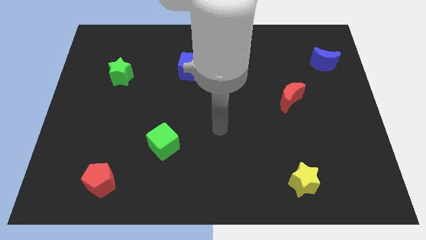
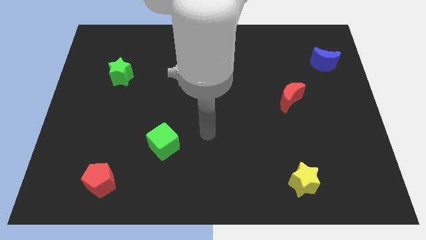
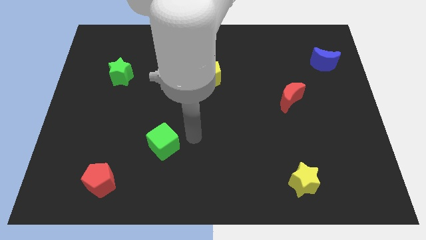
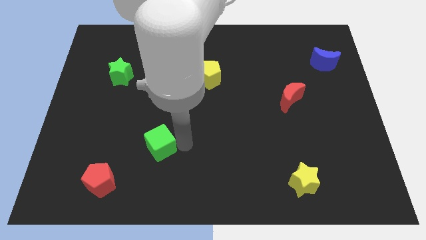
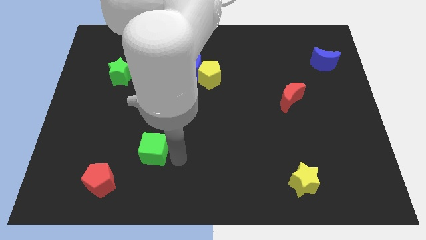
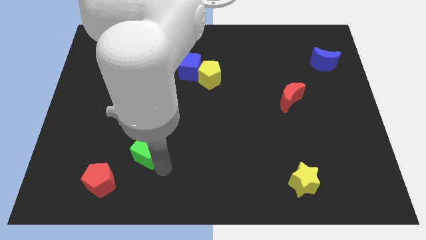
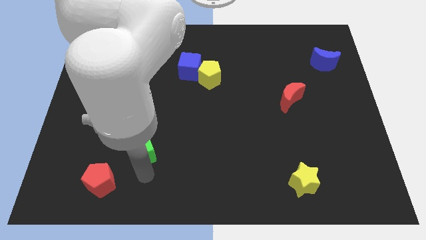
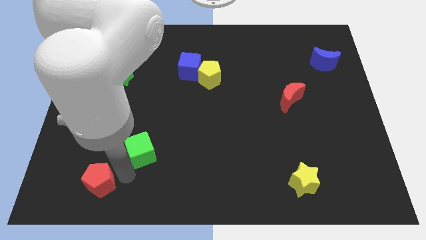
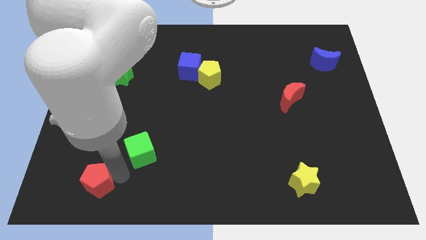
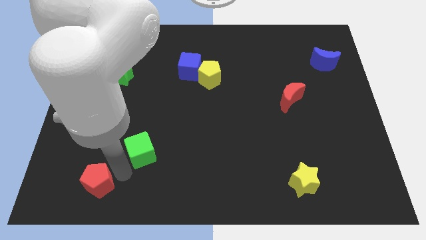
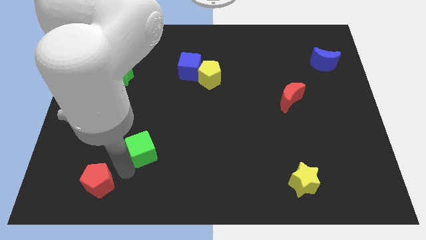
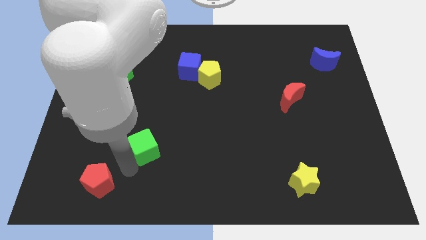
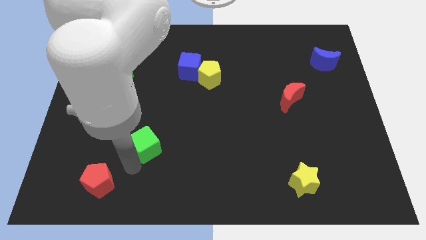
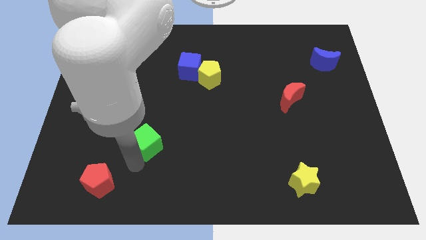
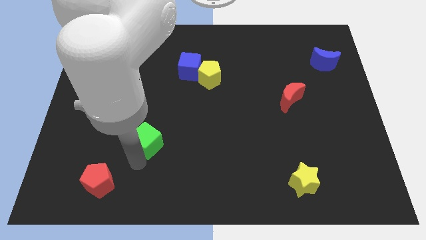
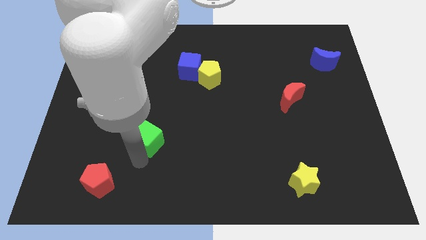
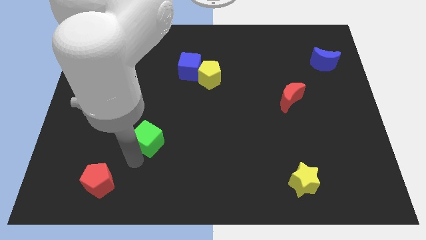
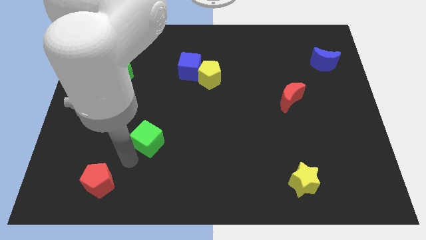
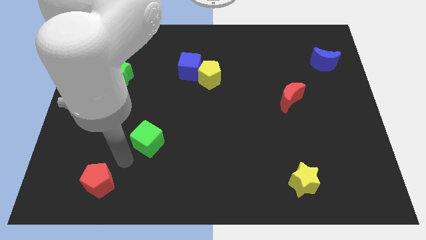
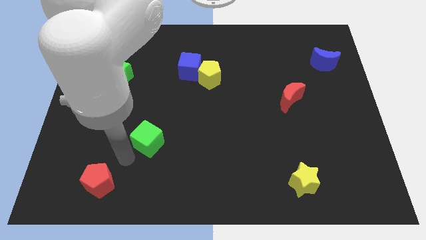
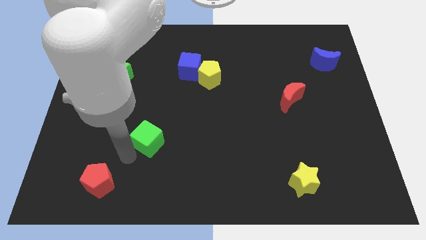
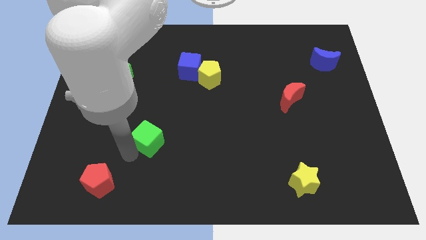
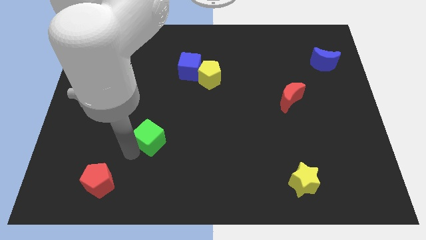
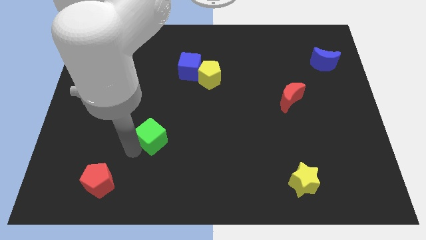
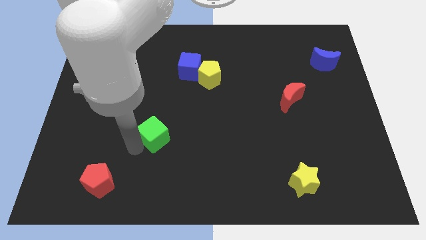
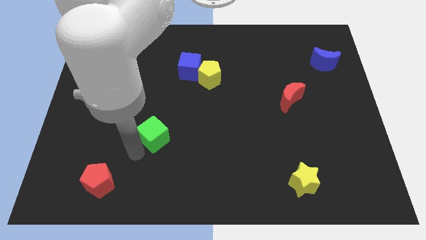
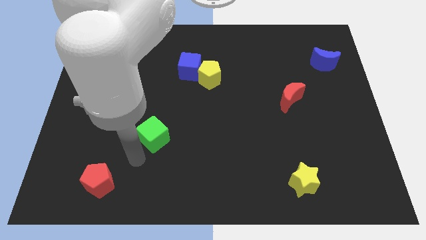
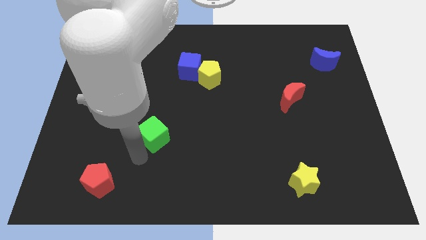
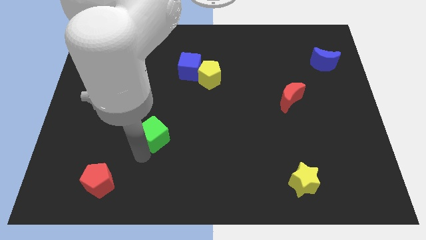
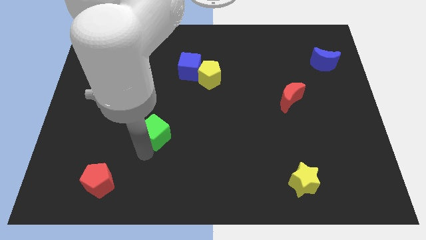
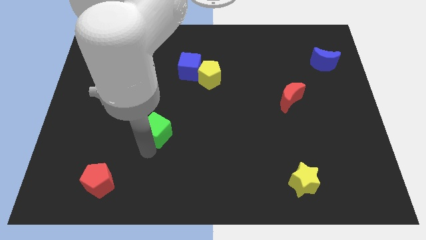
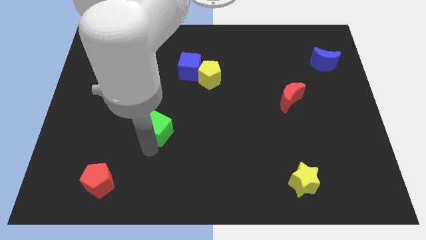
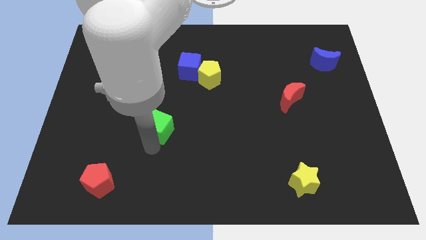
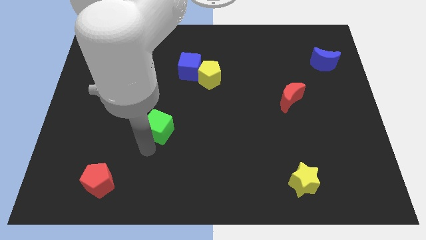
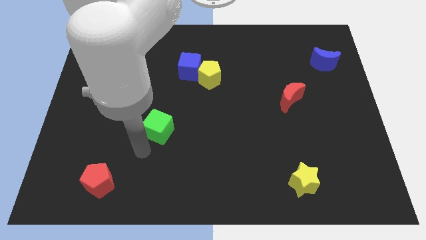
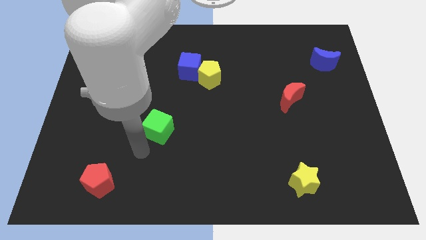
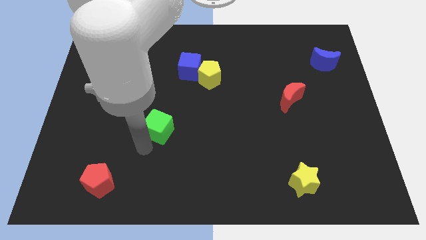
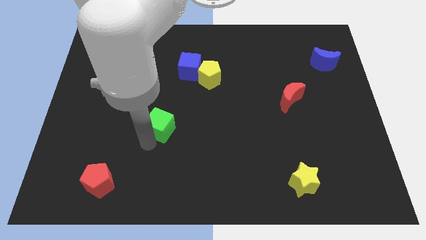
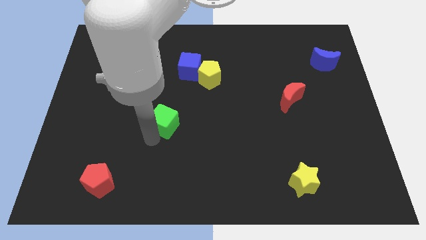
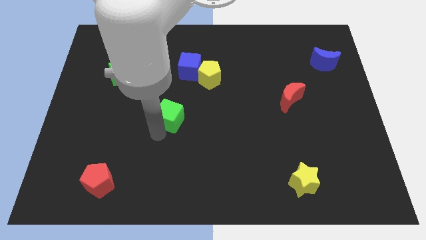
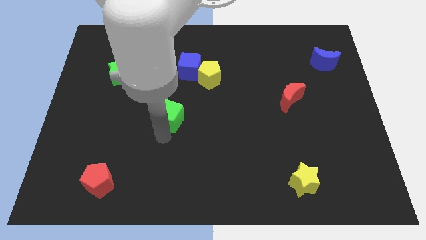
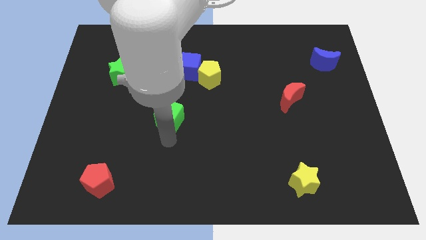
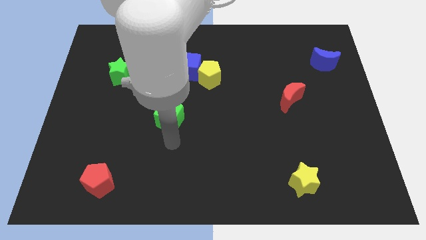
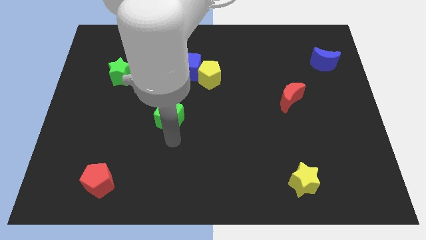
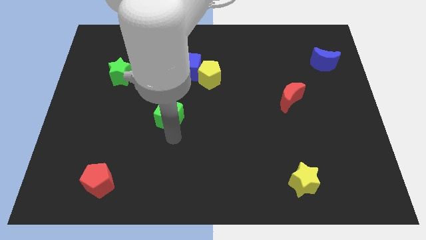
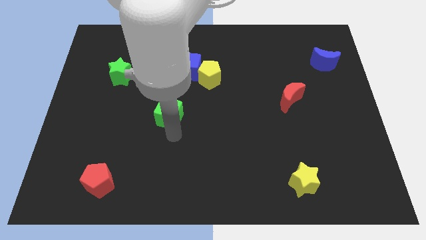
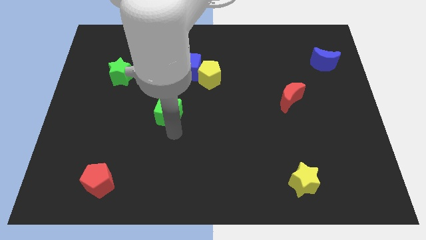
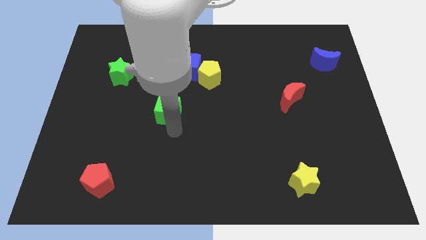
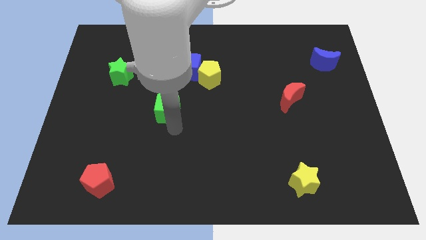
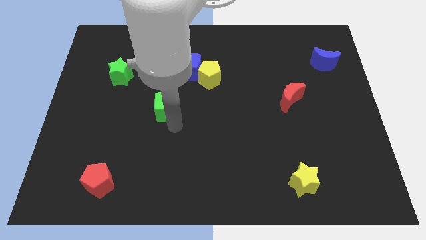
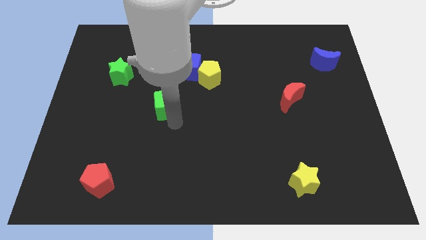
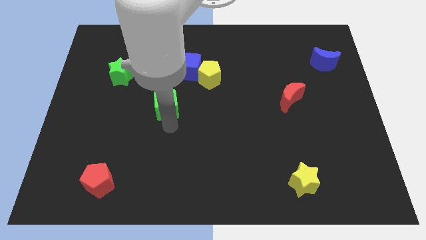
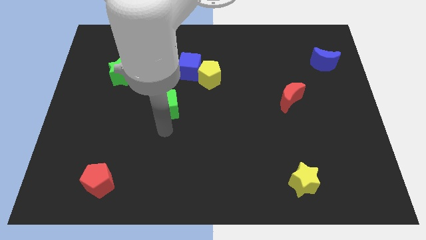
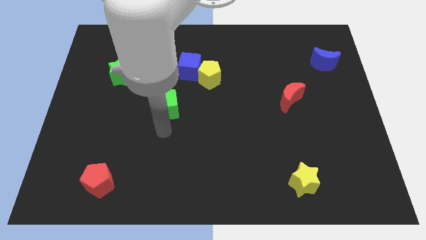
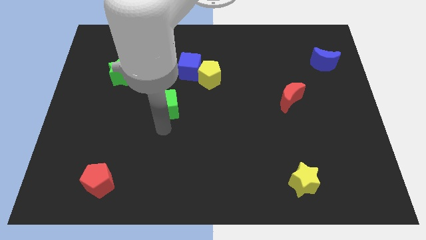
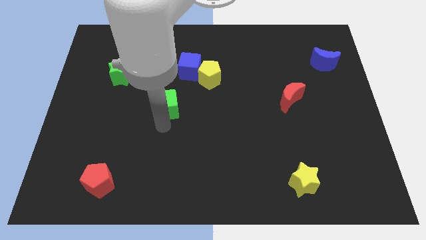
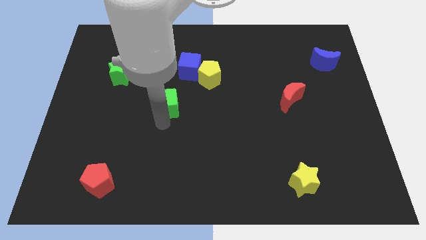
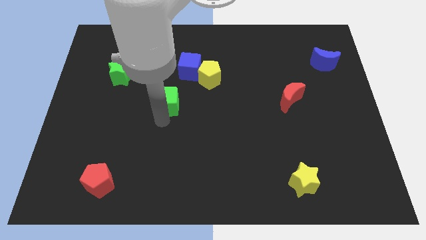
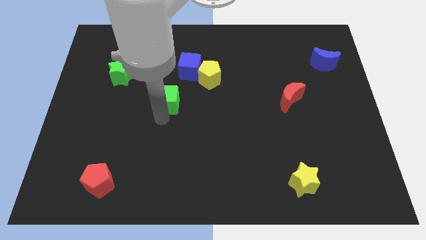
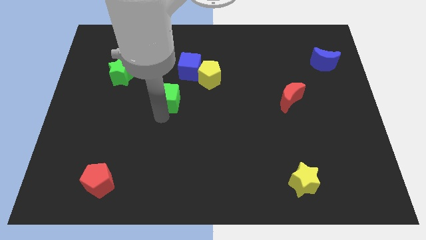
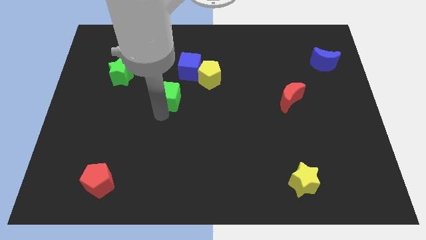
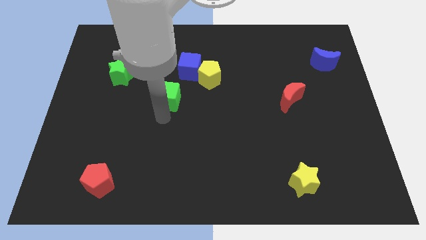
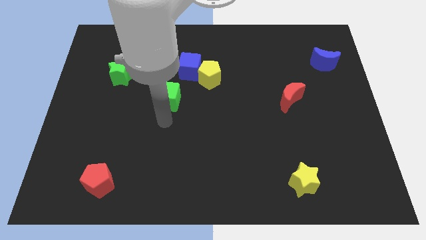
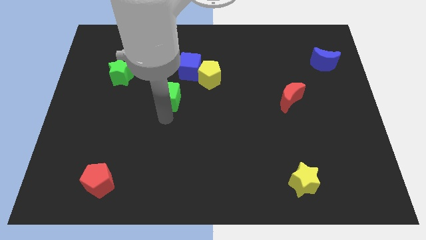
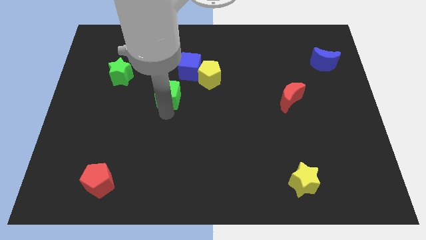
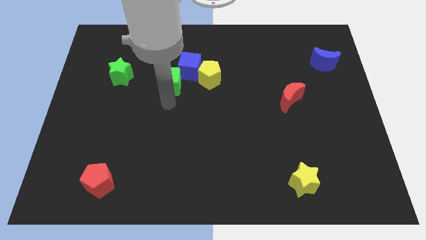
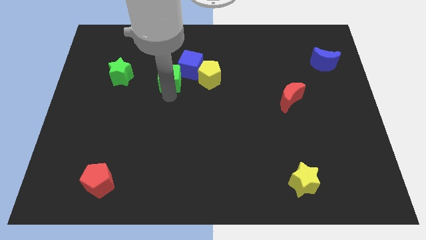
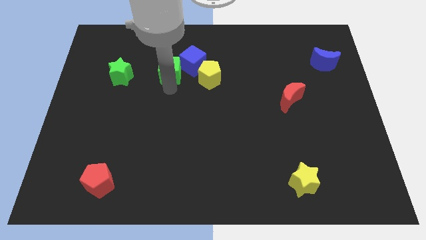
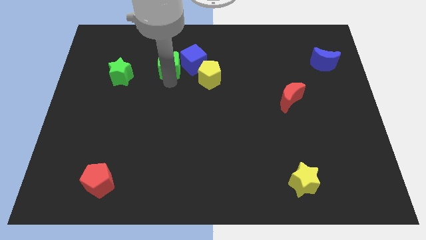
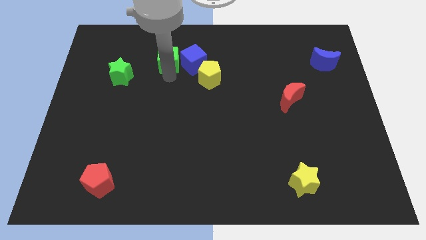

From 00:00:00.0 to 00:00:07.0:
put the green cube to the top left side of the blue cube
